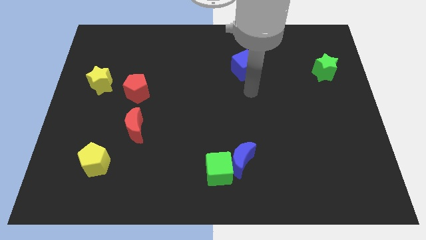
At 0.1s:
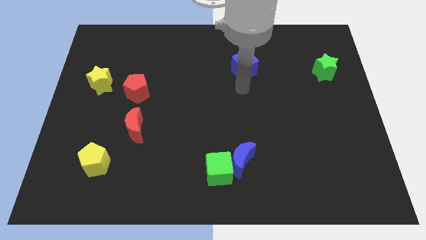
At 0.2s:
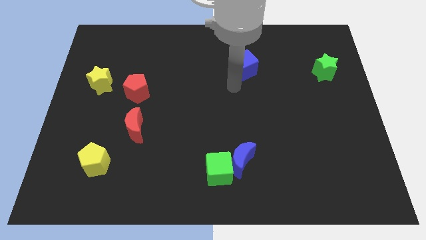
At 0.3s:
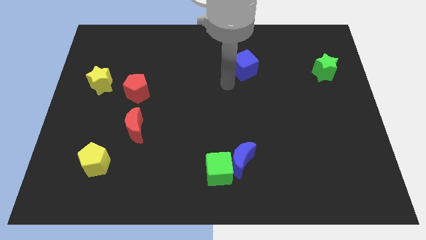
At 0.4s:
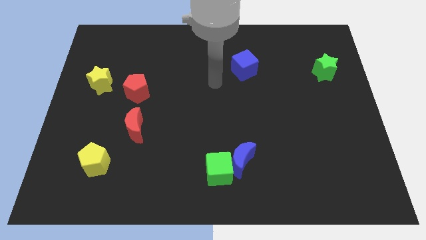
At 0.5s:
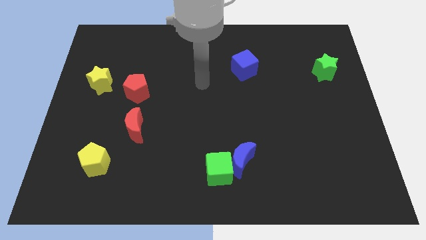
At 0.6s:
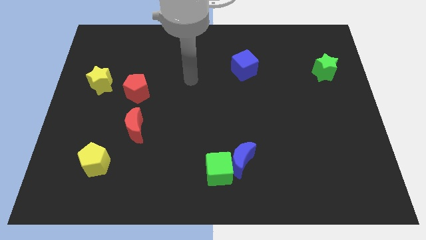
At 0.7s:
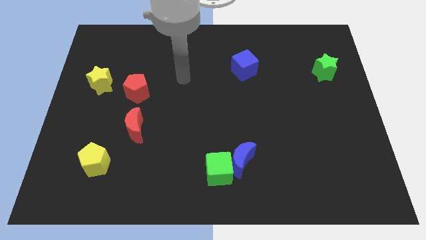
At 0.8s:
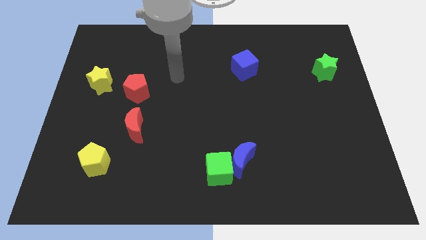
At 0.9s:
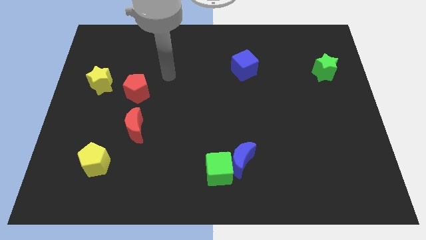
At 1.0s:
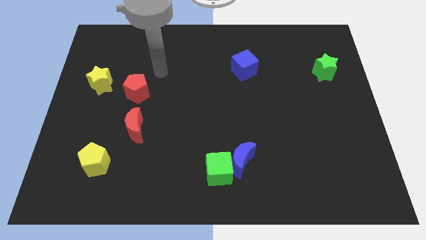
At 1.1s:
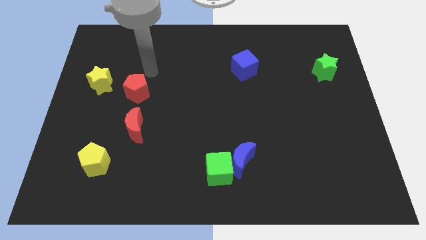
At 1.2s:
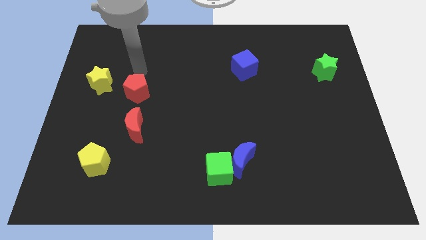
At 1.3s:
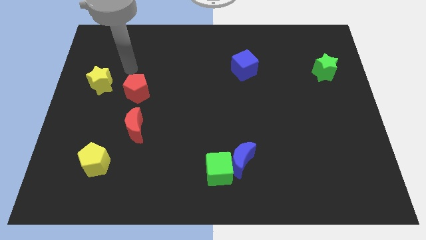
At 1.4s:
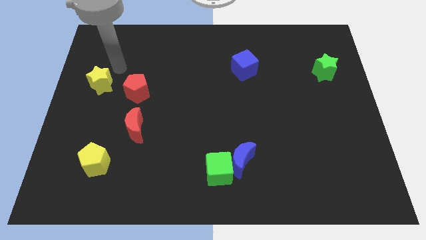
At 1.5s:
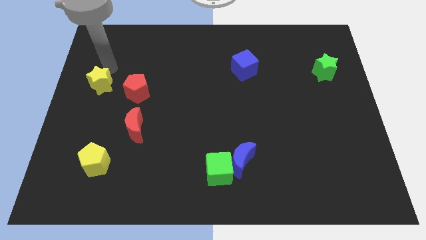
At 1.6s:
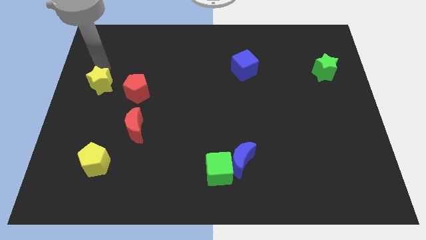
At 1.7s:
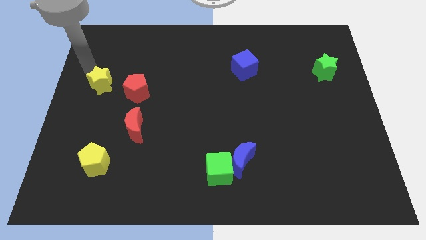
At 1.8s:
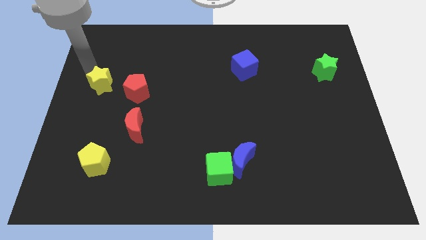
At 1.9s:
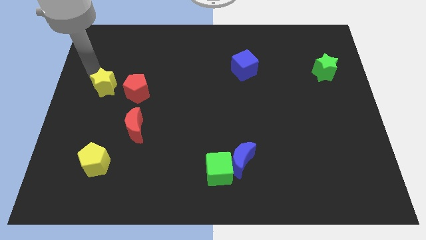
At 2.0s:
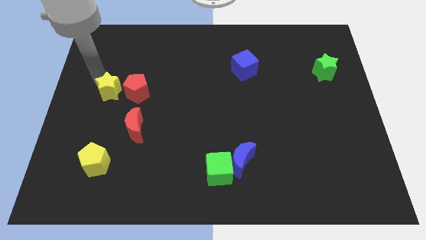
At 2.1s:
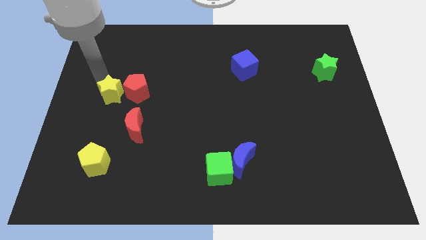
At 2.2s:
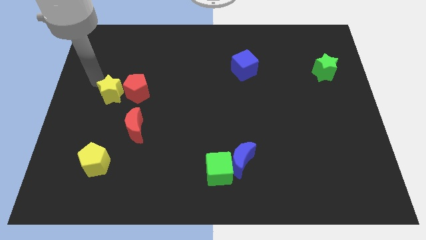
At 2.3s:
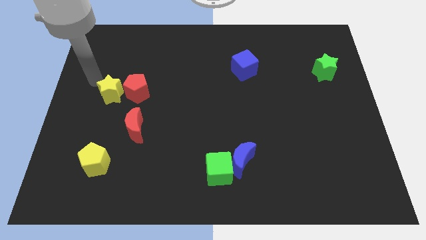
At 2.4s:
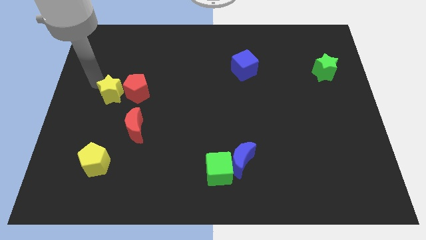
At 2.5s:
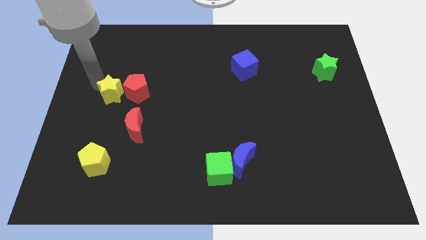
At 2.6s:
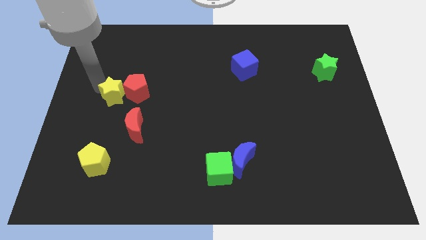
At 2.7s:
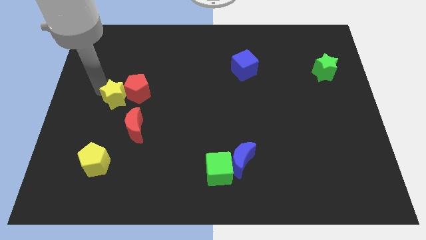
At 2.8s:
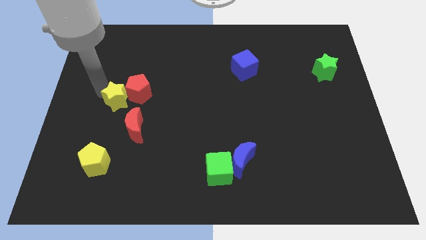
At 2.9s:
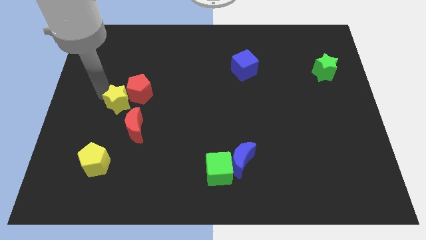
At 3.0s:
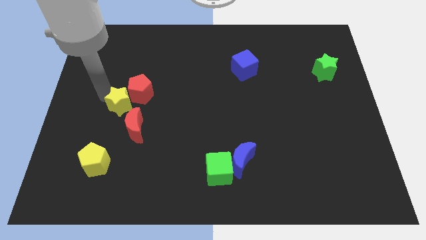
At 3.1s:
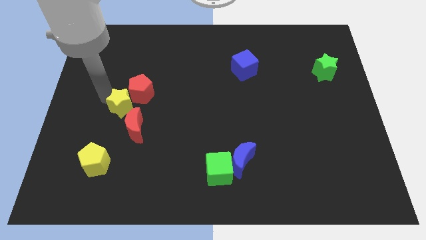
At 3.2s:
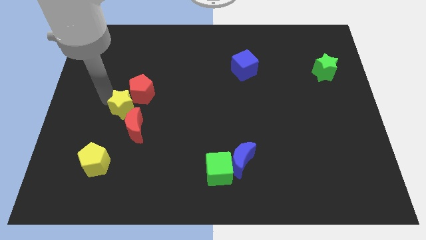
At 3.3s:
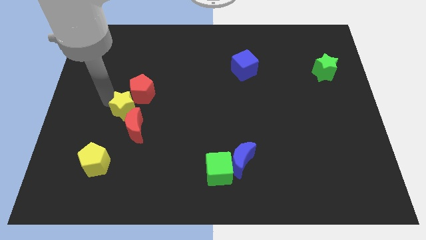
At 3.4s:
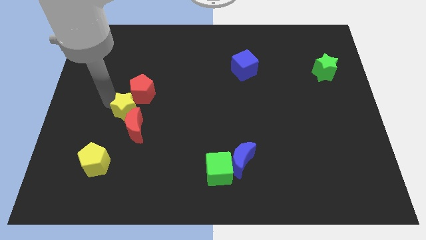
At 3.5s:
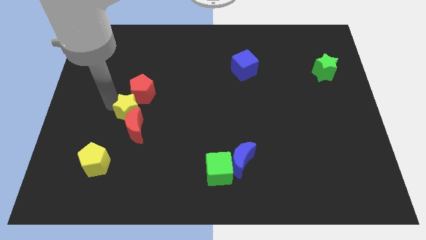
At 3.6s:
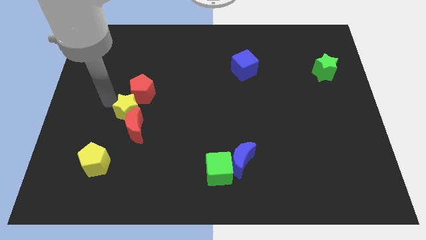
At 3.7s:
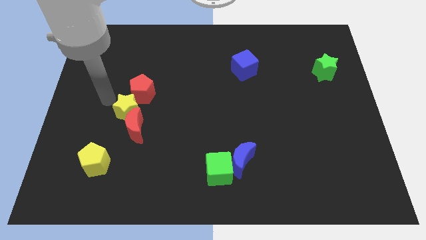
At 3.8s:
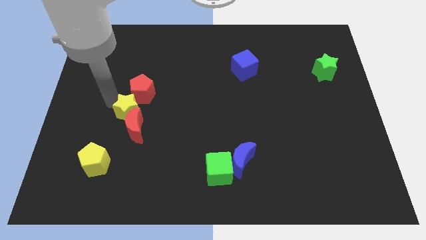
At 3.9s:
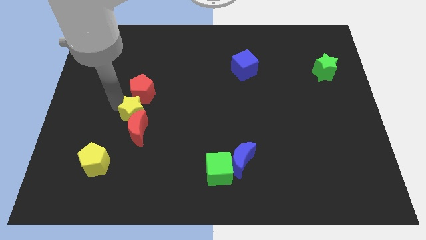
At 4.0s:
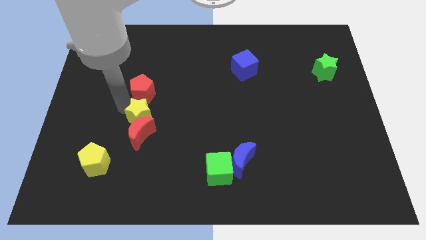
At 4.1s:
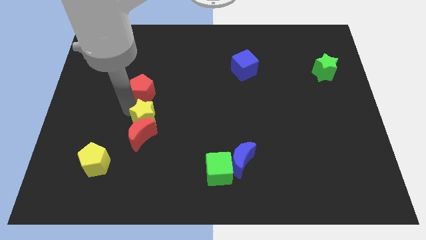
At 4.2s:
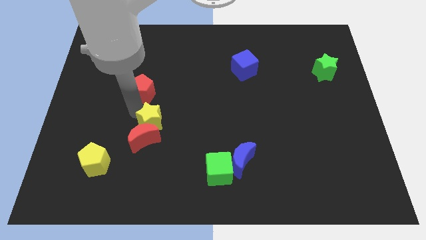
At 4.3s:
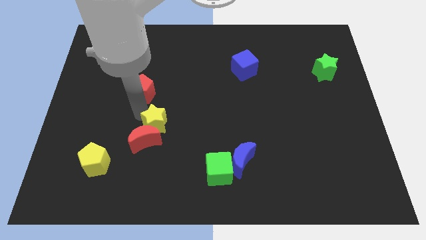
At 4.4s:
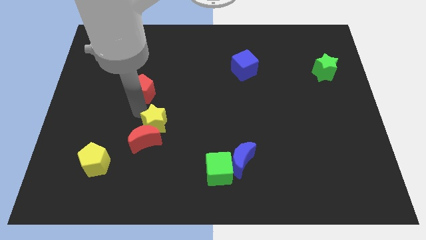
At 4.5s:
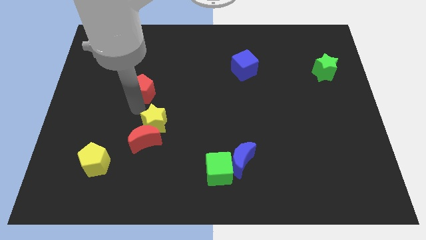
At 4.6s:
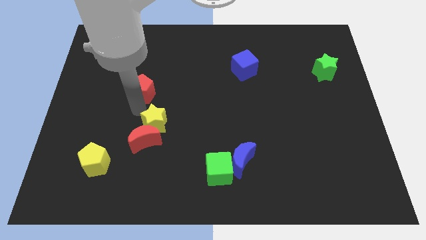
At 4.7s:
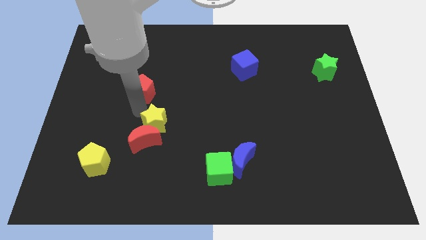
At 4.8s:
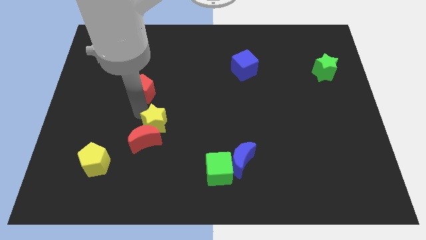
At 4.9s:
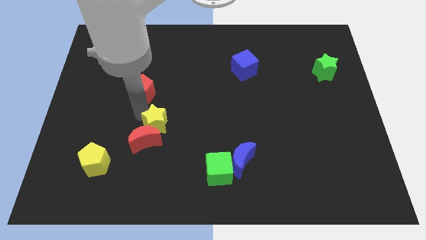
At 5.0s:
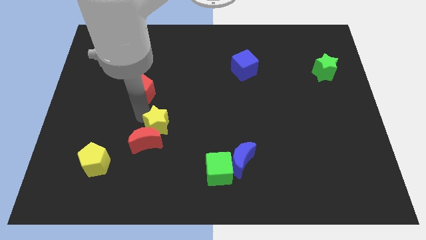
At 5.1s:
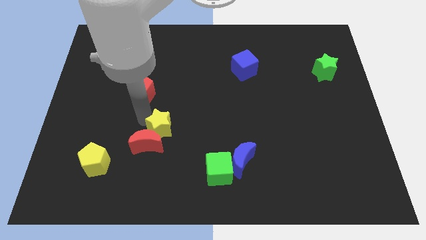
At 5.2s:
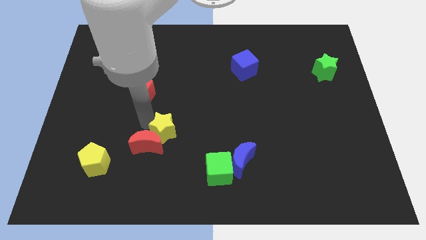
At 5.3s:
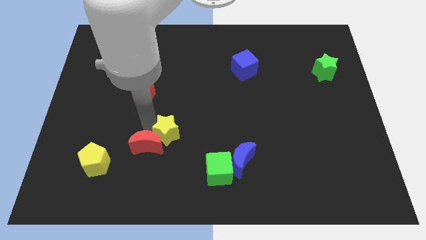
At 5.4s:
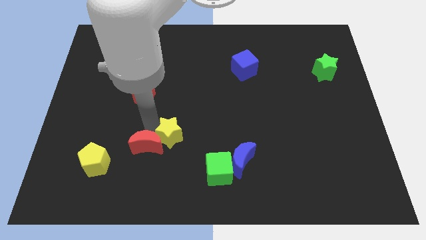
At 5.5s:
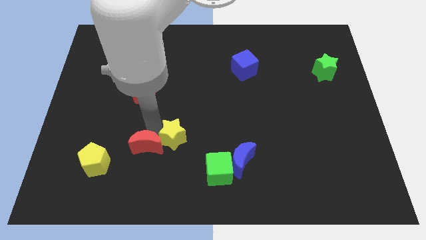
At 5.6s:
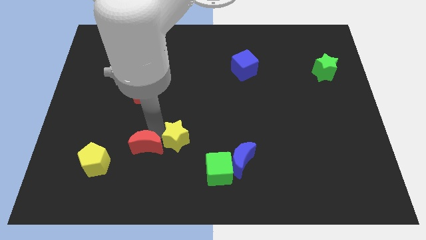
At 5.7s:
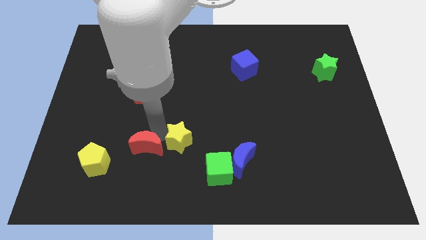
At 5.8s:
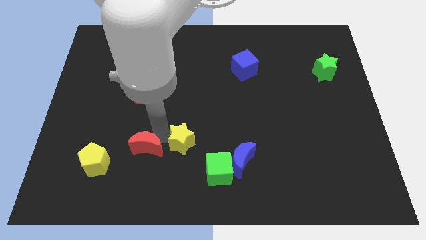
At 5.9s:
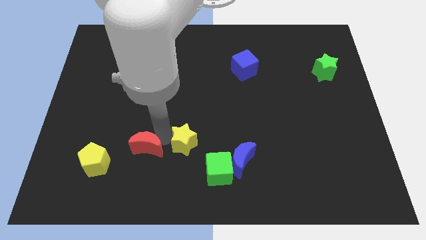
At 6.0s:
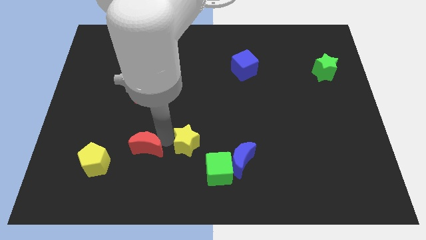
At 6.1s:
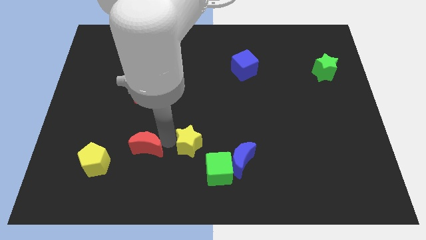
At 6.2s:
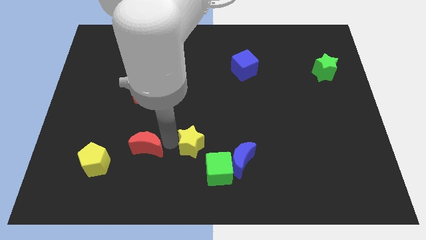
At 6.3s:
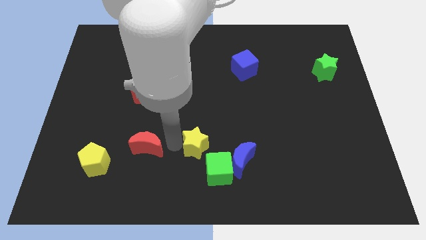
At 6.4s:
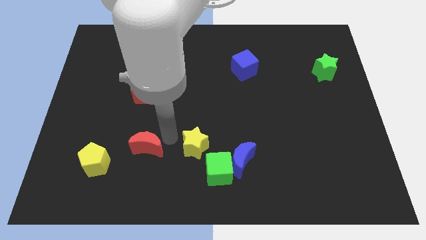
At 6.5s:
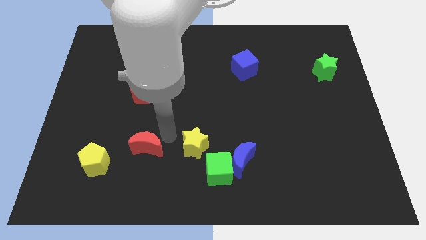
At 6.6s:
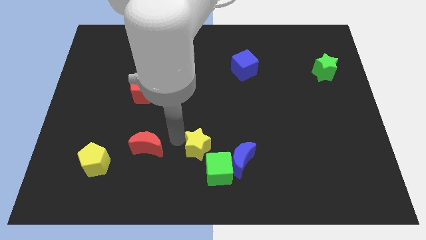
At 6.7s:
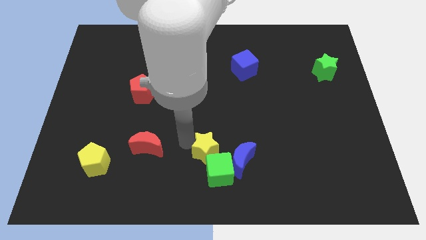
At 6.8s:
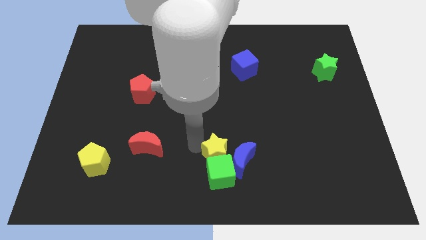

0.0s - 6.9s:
slide the yellow star to the blue moon

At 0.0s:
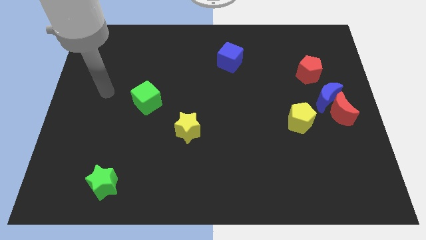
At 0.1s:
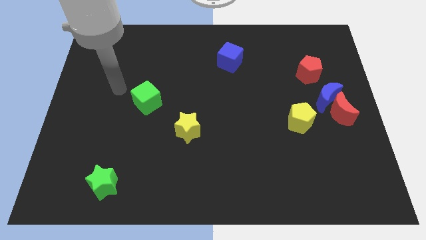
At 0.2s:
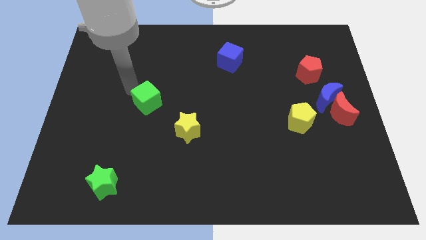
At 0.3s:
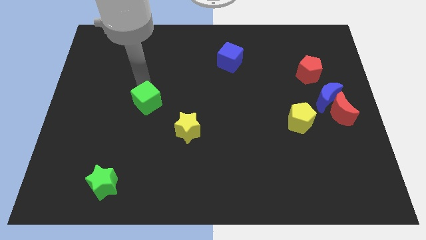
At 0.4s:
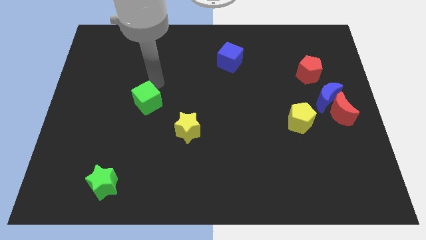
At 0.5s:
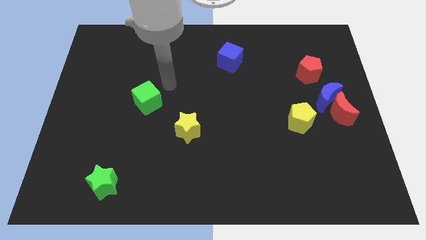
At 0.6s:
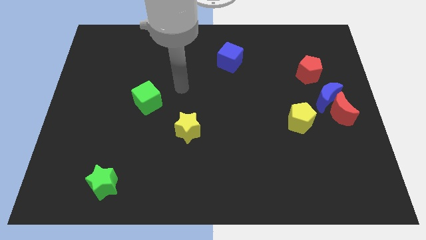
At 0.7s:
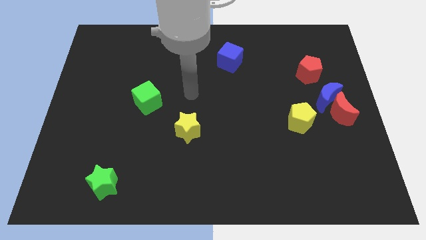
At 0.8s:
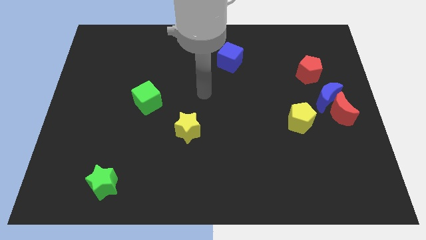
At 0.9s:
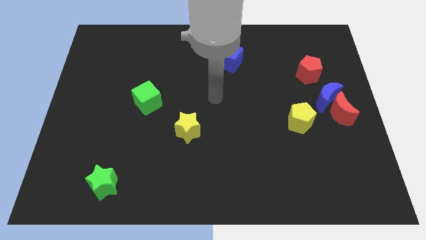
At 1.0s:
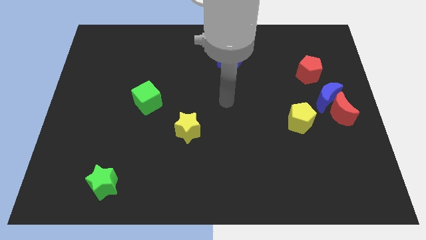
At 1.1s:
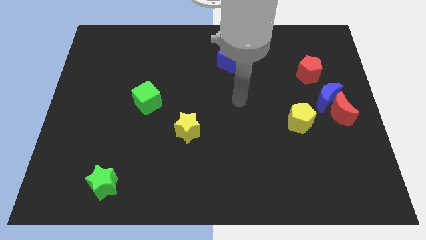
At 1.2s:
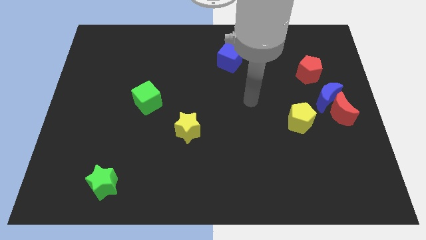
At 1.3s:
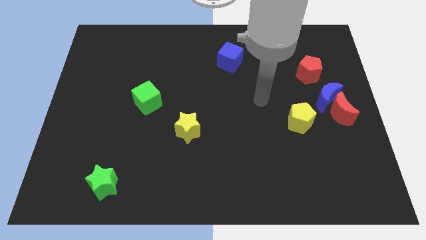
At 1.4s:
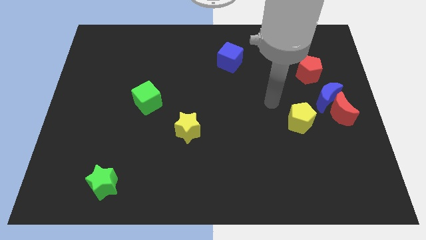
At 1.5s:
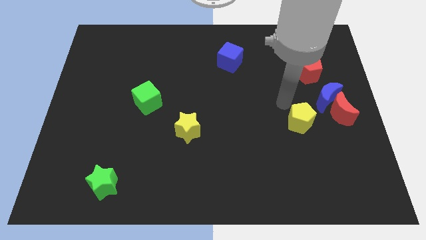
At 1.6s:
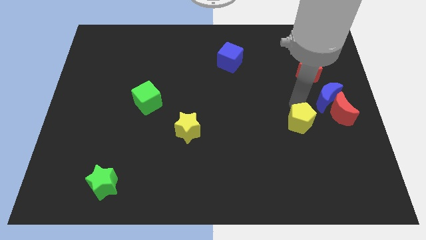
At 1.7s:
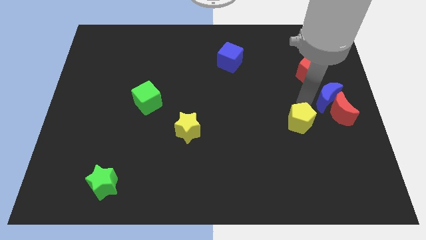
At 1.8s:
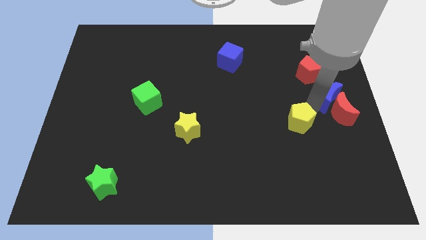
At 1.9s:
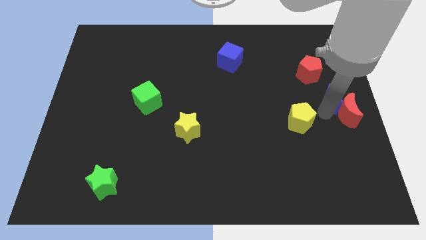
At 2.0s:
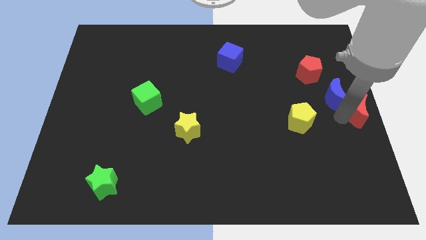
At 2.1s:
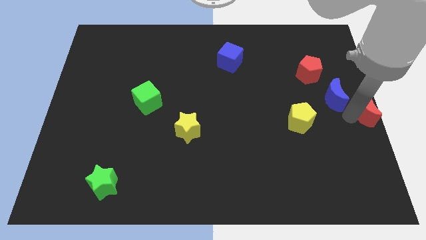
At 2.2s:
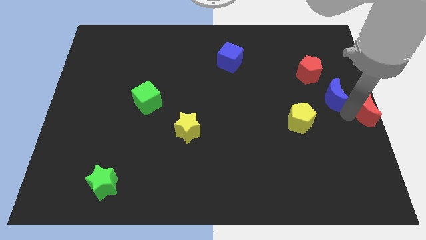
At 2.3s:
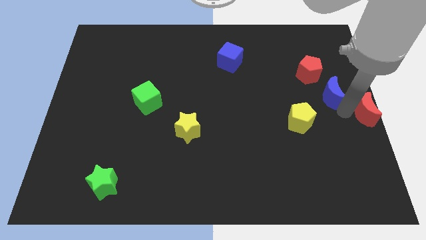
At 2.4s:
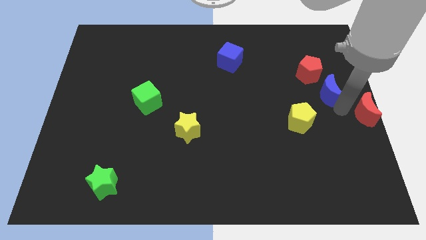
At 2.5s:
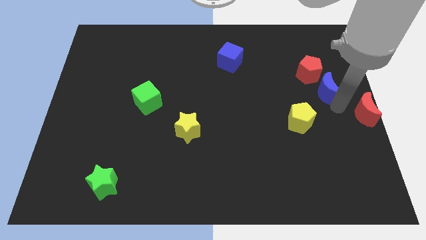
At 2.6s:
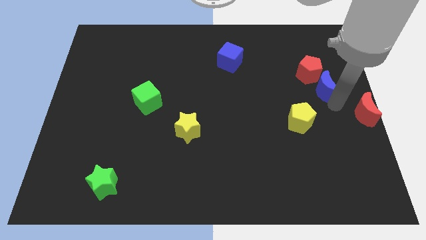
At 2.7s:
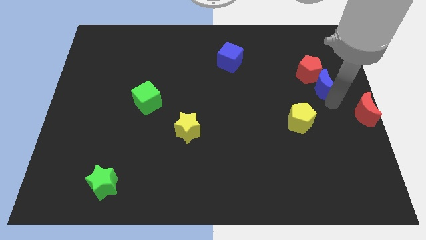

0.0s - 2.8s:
slide the blue moon towards the red pentagon
